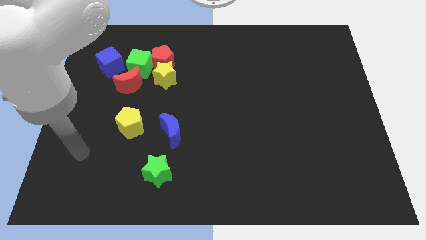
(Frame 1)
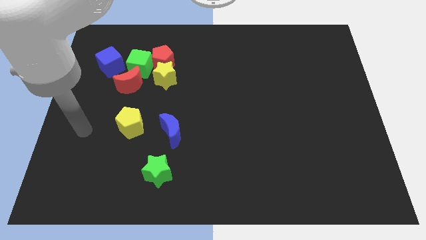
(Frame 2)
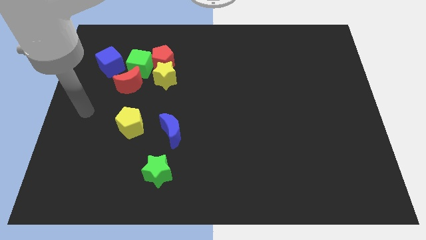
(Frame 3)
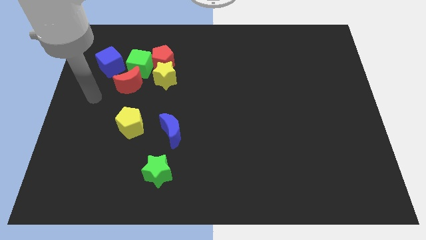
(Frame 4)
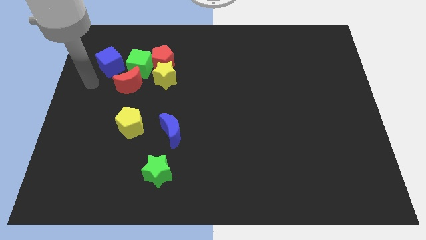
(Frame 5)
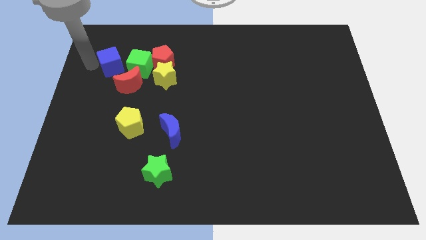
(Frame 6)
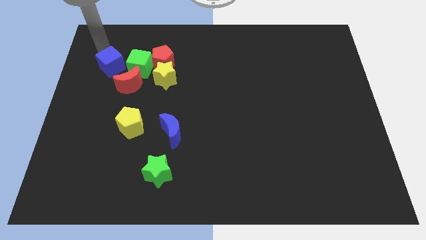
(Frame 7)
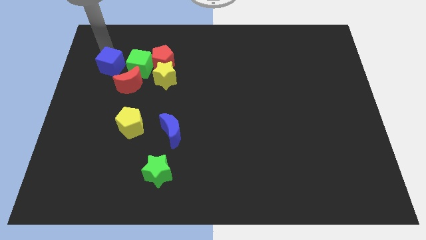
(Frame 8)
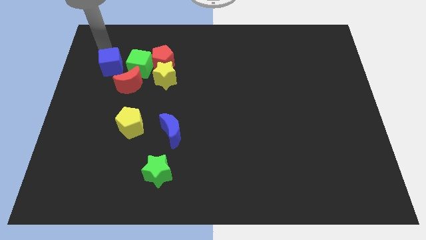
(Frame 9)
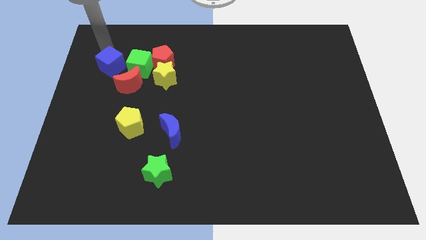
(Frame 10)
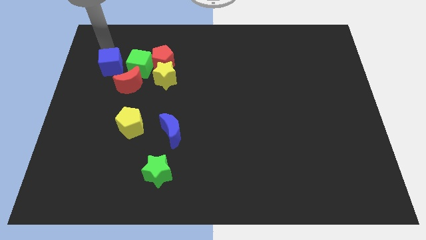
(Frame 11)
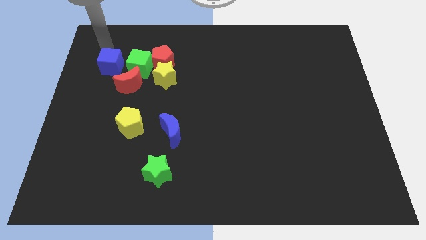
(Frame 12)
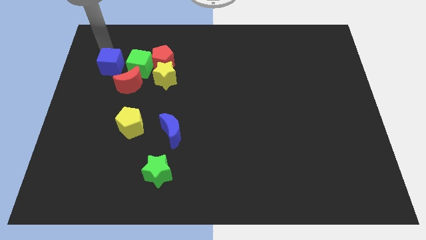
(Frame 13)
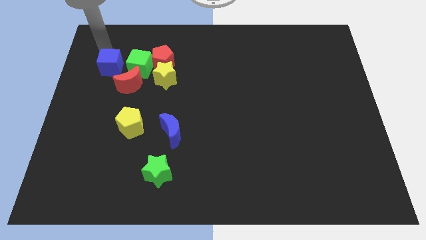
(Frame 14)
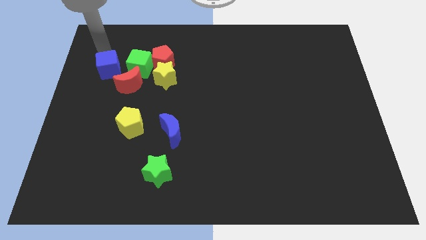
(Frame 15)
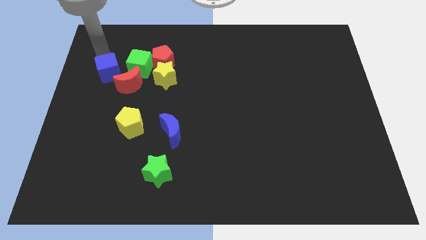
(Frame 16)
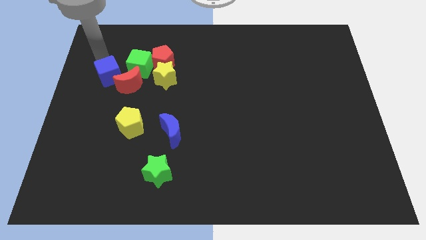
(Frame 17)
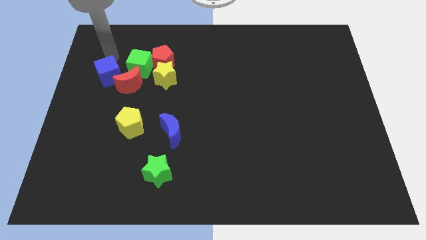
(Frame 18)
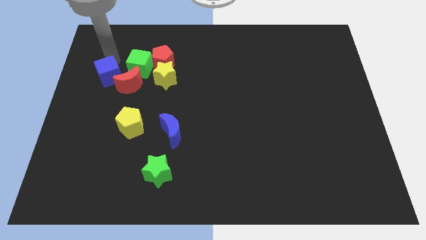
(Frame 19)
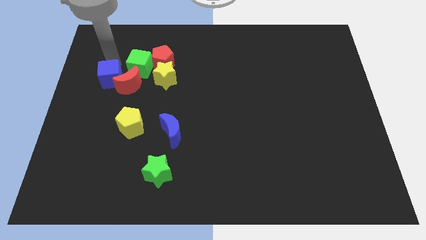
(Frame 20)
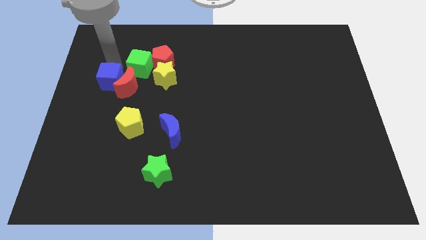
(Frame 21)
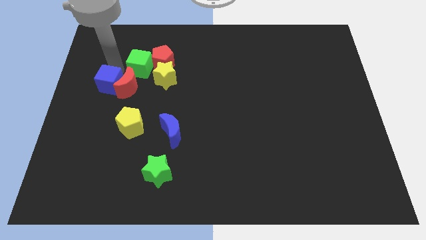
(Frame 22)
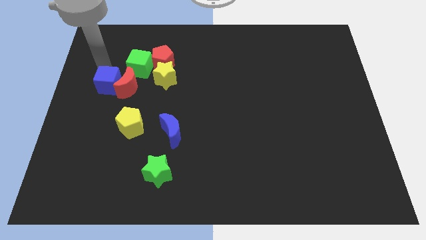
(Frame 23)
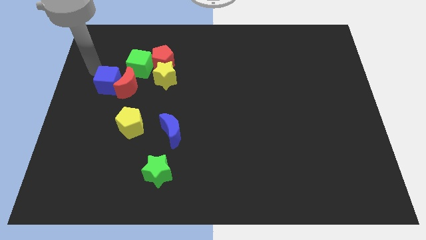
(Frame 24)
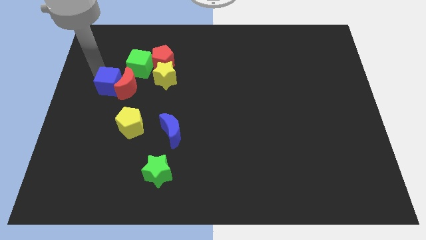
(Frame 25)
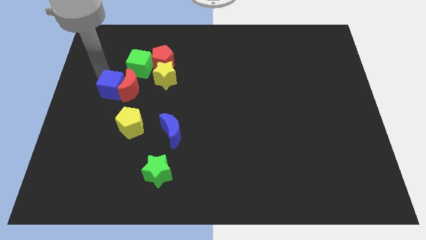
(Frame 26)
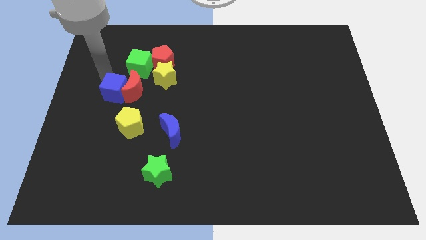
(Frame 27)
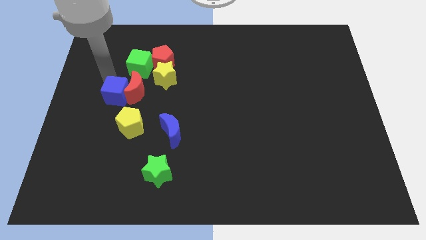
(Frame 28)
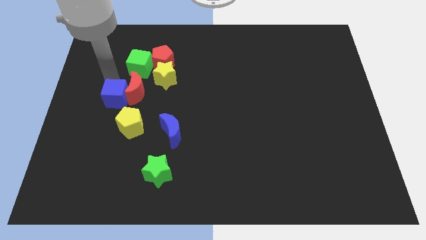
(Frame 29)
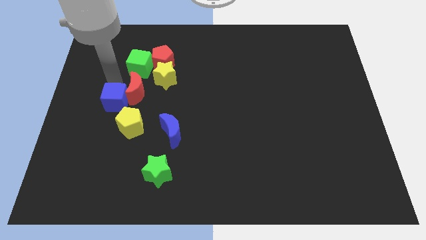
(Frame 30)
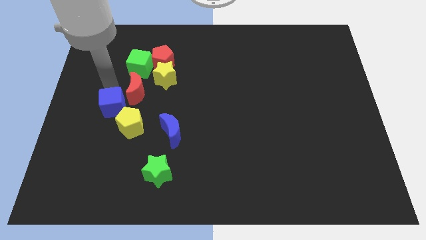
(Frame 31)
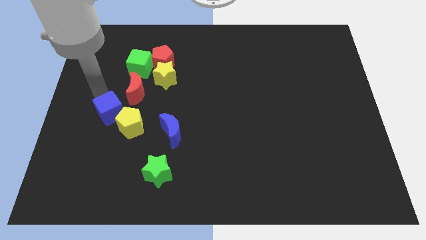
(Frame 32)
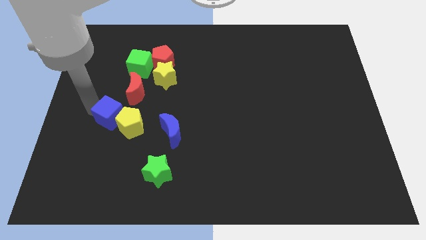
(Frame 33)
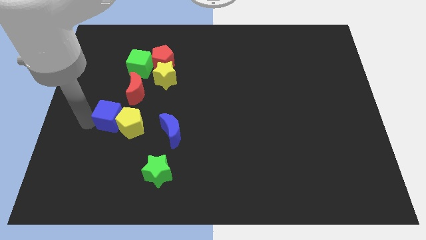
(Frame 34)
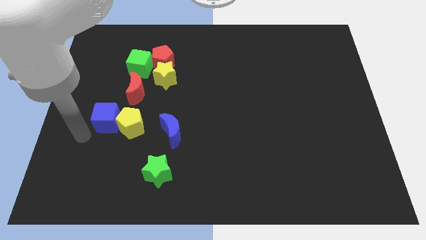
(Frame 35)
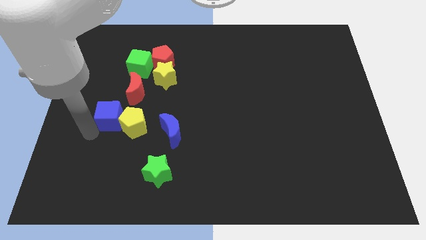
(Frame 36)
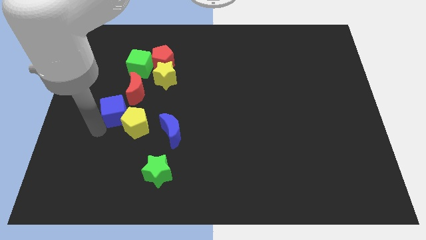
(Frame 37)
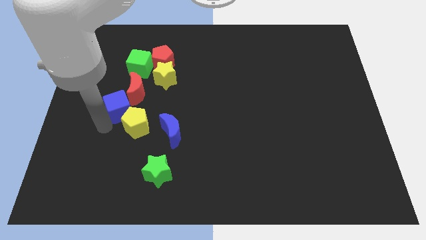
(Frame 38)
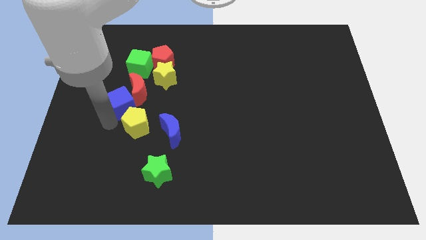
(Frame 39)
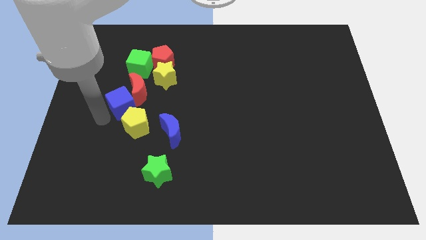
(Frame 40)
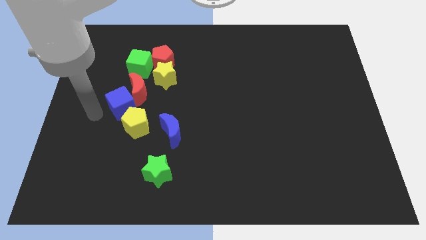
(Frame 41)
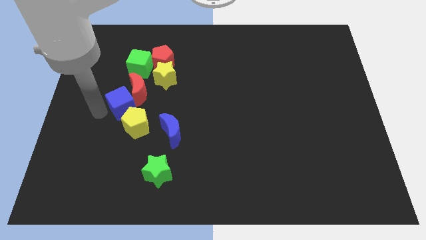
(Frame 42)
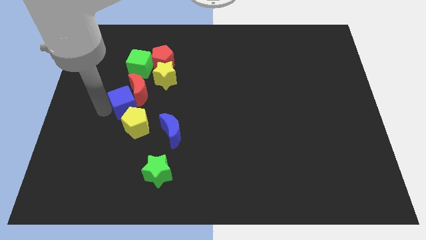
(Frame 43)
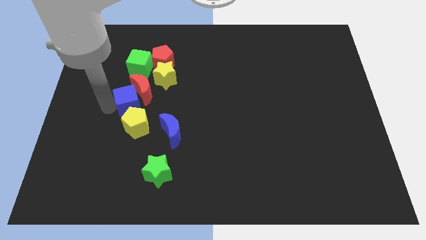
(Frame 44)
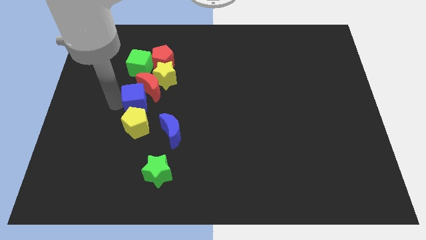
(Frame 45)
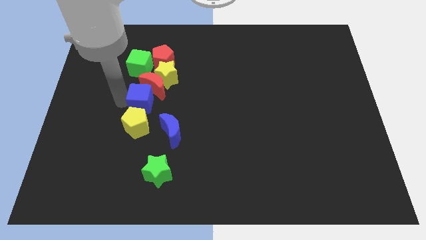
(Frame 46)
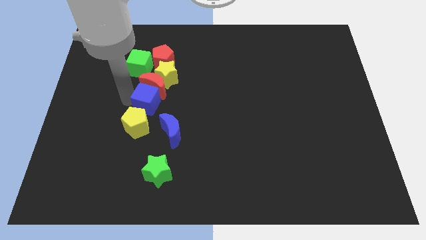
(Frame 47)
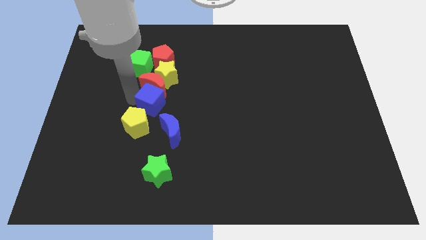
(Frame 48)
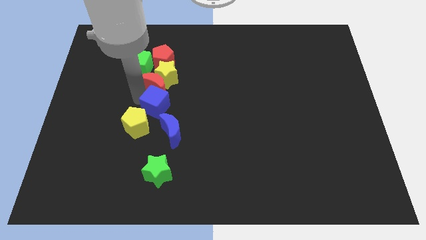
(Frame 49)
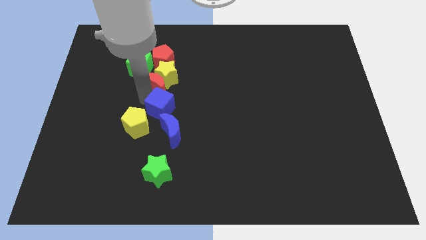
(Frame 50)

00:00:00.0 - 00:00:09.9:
push the blue cube diagonally down and right

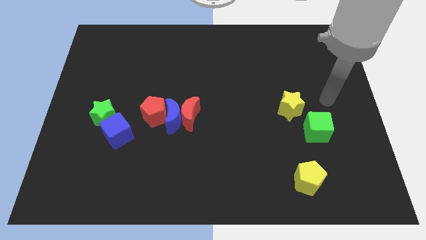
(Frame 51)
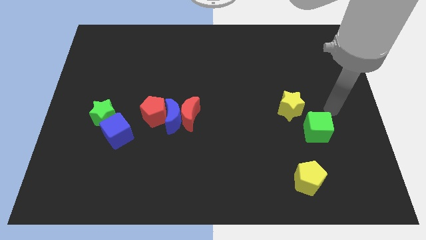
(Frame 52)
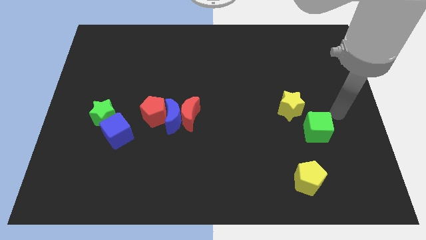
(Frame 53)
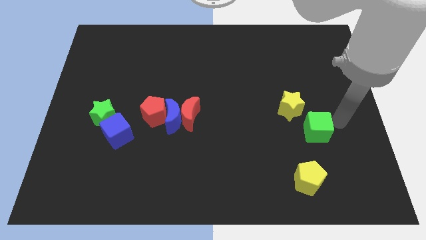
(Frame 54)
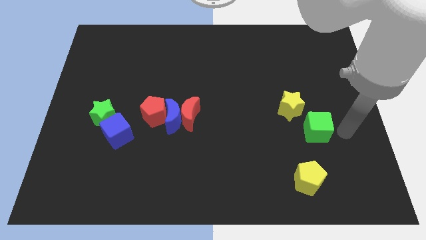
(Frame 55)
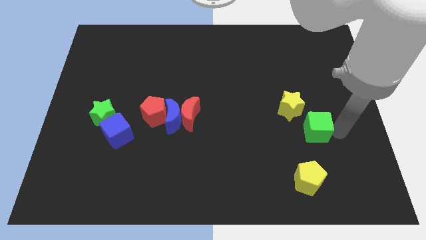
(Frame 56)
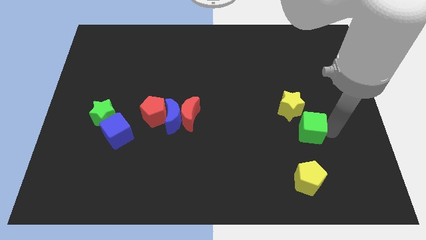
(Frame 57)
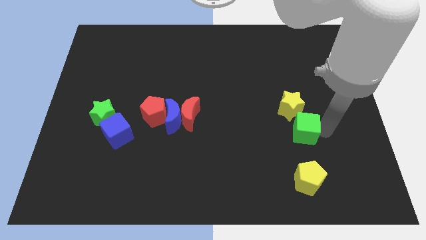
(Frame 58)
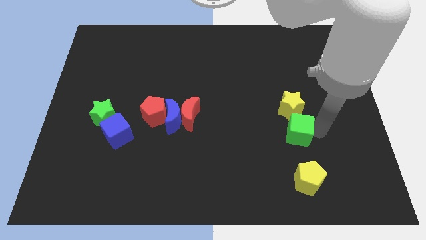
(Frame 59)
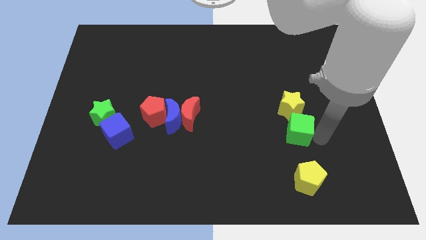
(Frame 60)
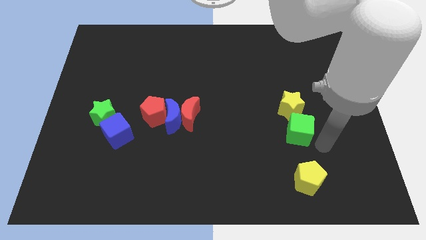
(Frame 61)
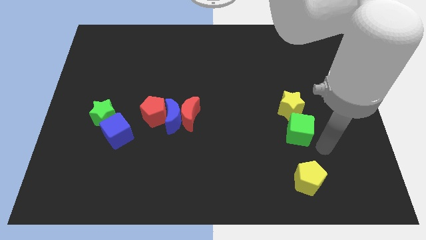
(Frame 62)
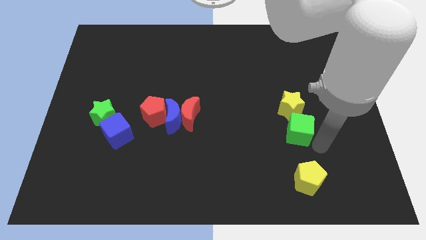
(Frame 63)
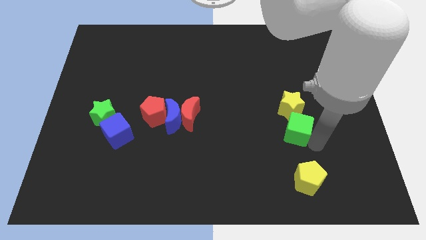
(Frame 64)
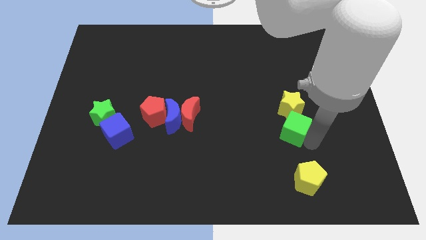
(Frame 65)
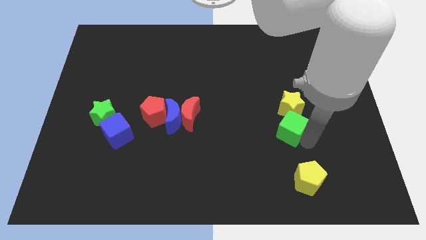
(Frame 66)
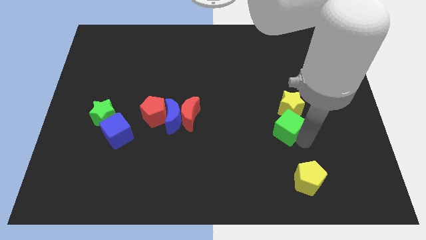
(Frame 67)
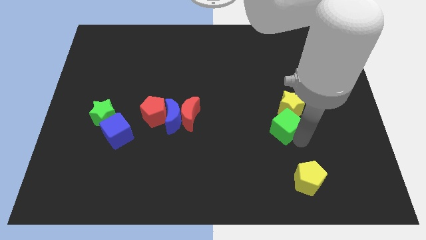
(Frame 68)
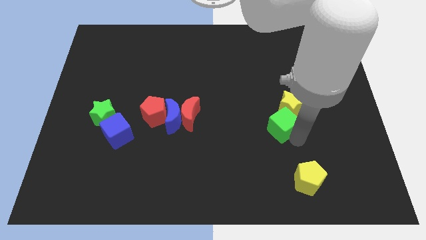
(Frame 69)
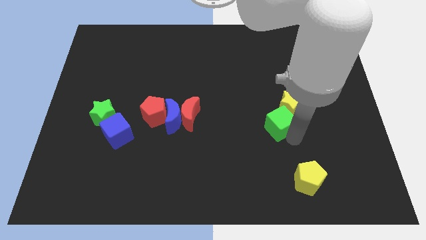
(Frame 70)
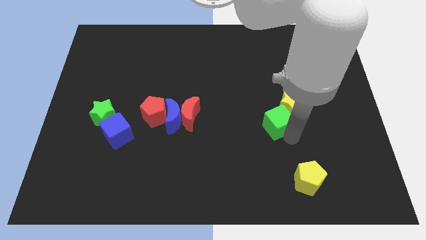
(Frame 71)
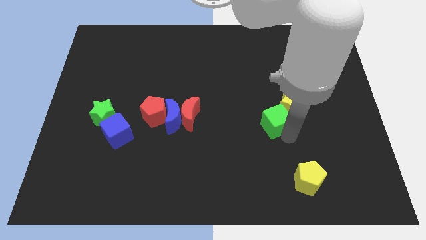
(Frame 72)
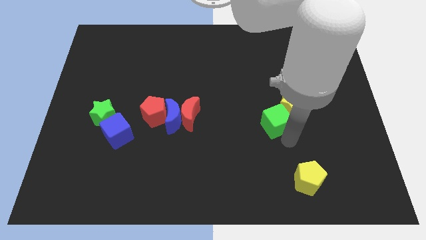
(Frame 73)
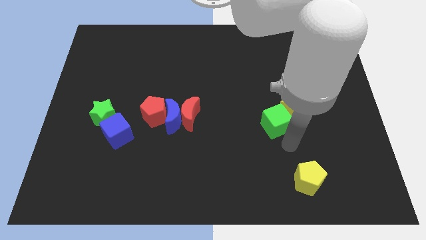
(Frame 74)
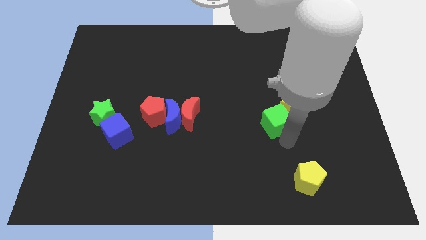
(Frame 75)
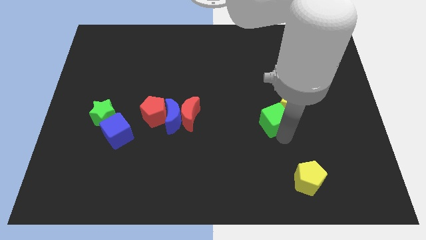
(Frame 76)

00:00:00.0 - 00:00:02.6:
push the green cube a little bit up and to the left

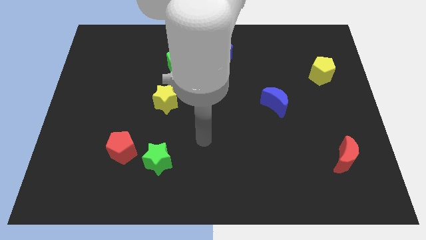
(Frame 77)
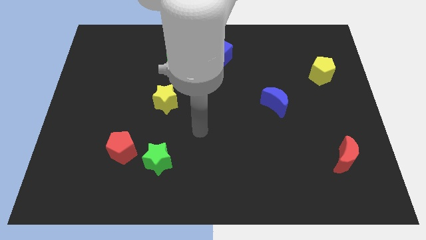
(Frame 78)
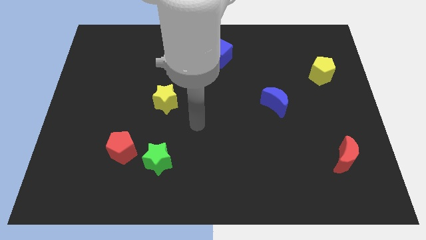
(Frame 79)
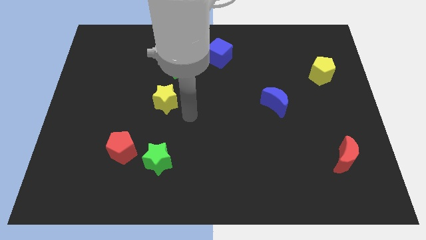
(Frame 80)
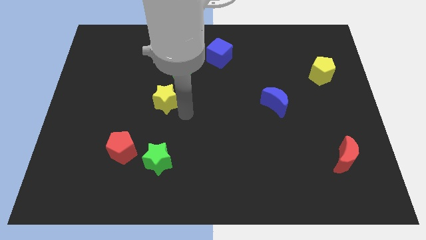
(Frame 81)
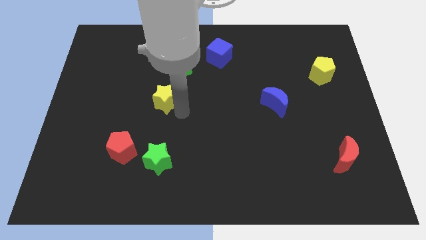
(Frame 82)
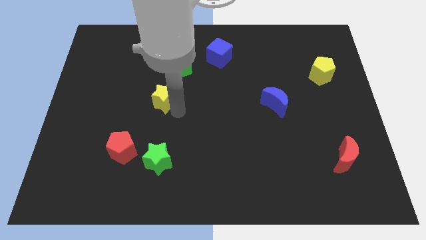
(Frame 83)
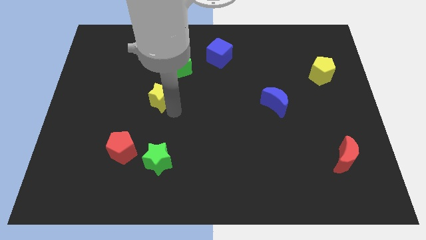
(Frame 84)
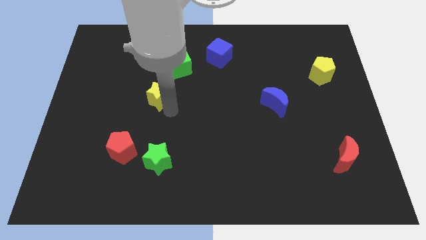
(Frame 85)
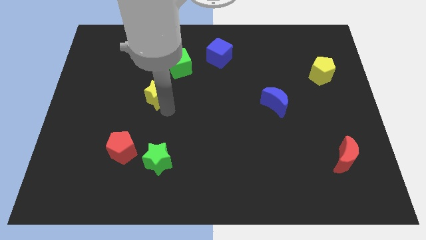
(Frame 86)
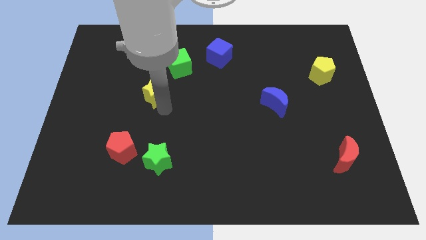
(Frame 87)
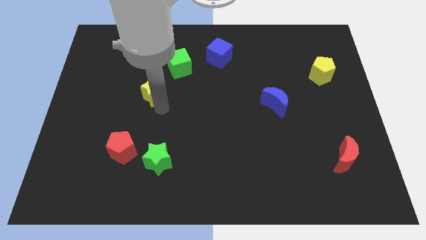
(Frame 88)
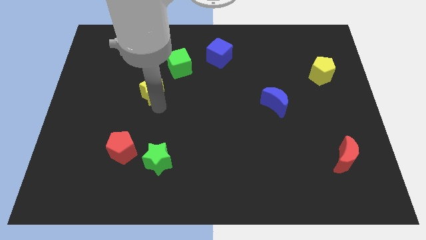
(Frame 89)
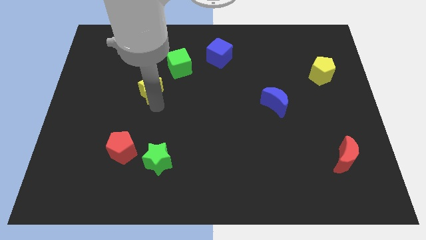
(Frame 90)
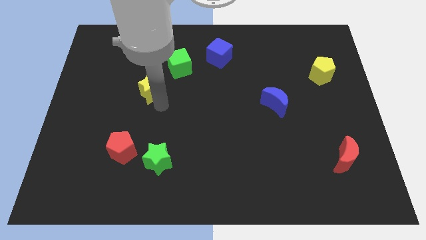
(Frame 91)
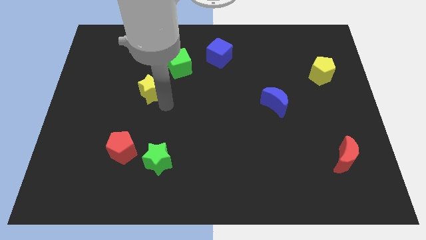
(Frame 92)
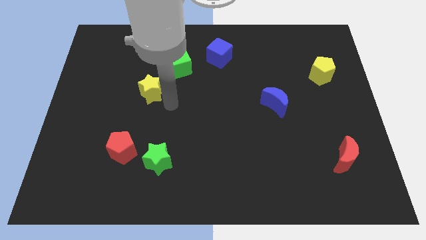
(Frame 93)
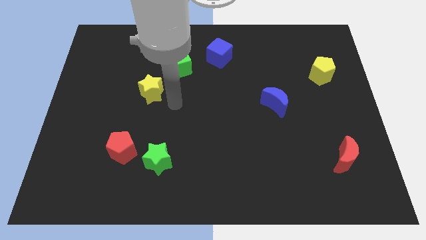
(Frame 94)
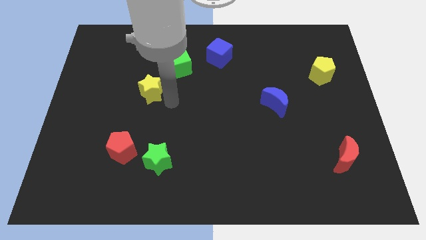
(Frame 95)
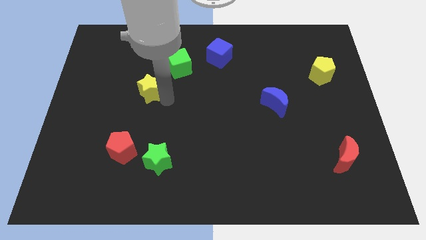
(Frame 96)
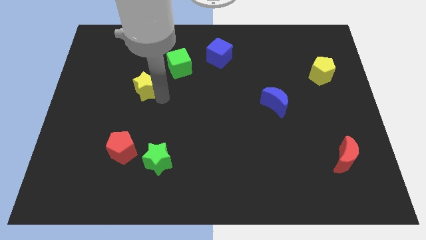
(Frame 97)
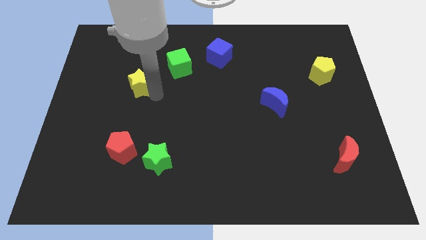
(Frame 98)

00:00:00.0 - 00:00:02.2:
slightly slide the yellow star up and then left
